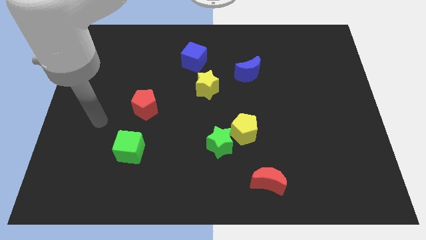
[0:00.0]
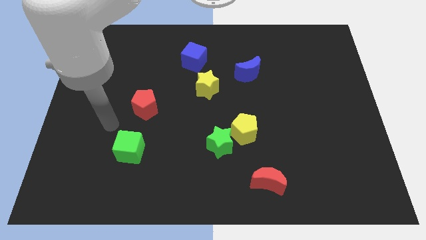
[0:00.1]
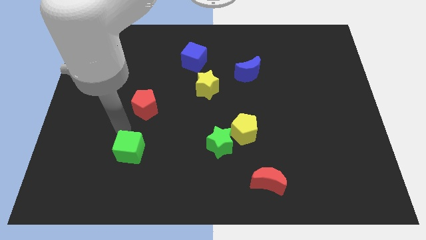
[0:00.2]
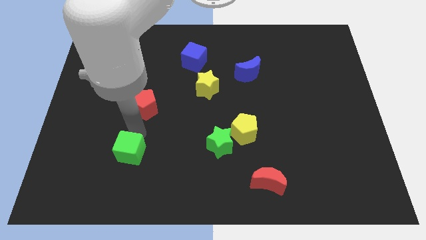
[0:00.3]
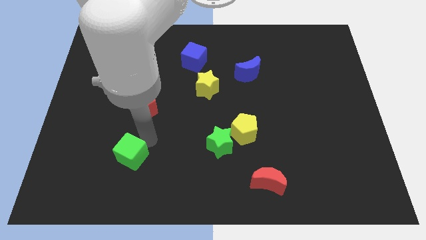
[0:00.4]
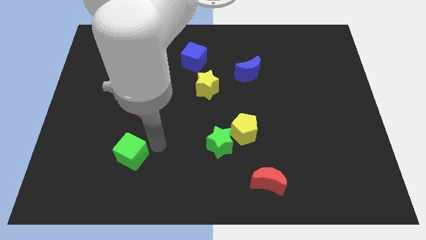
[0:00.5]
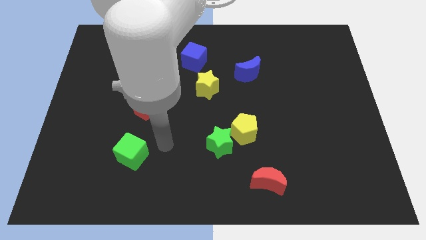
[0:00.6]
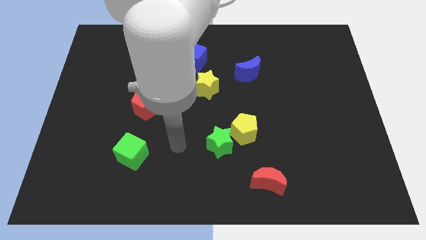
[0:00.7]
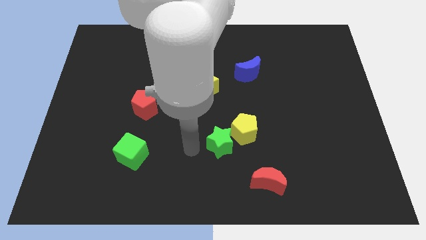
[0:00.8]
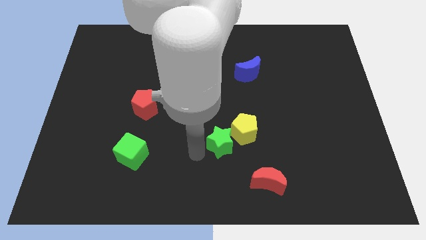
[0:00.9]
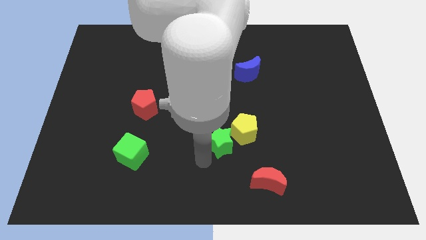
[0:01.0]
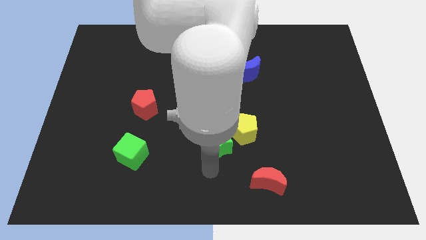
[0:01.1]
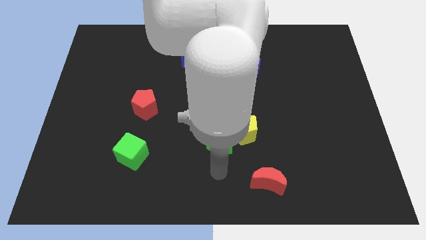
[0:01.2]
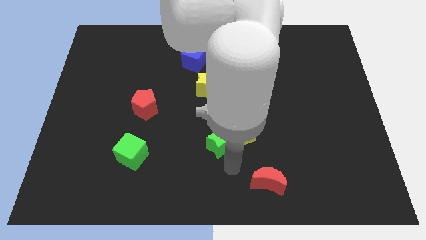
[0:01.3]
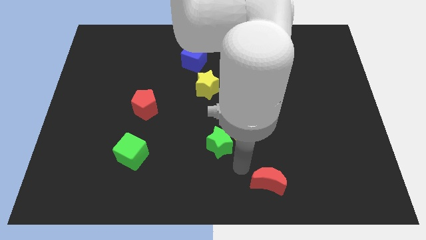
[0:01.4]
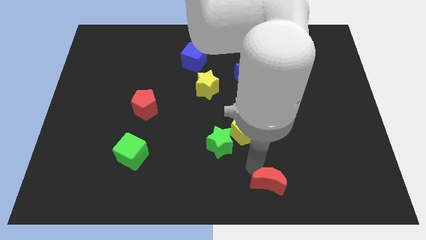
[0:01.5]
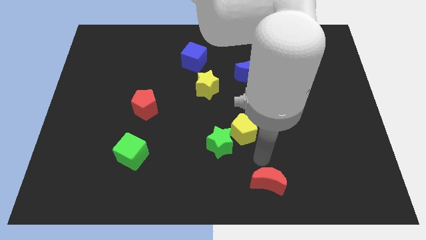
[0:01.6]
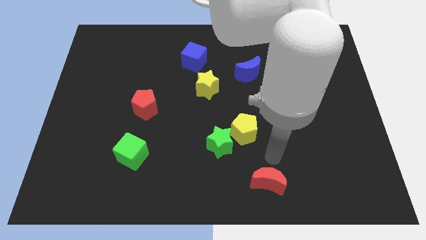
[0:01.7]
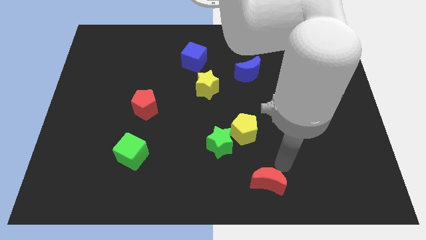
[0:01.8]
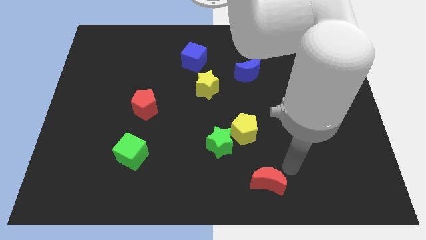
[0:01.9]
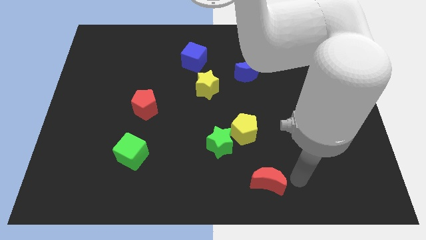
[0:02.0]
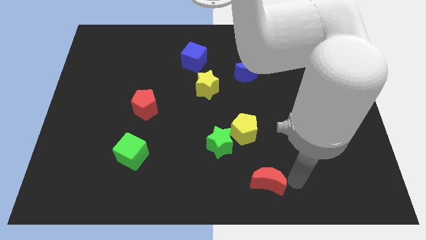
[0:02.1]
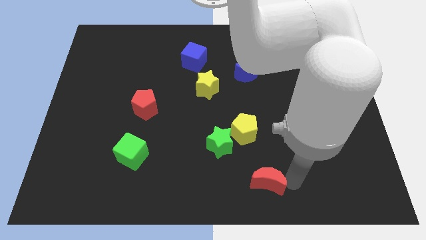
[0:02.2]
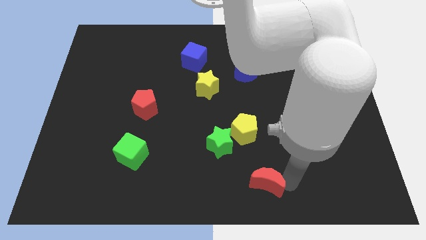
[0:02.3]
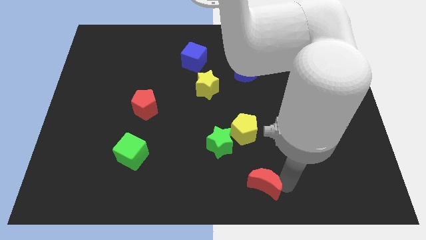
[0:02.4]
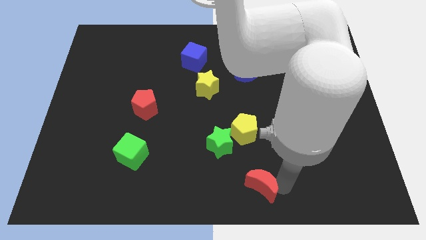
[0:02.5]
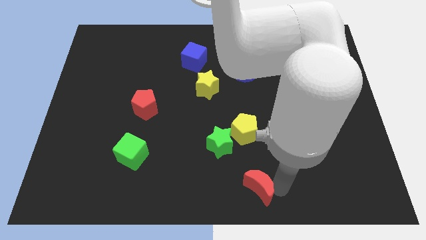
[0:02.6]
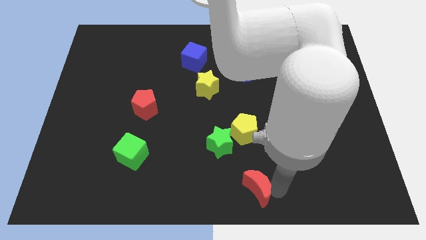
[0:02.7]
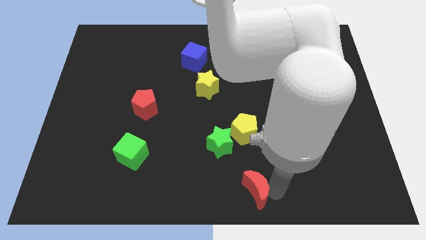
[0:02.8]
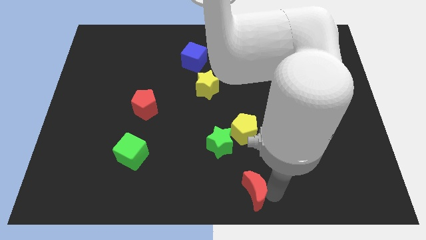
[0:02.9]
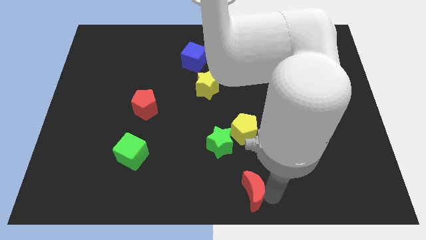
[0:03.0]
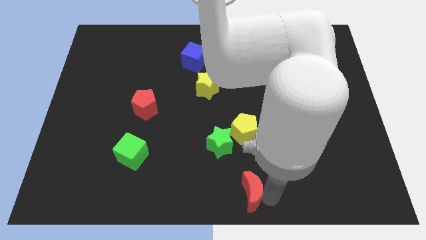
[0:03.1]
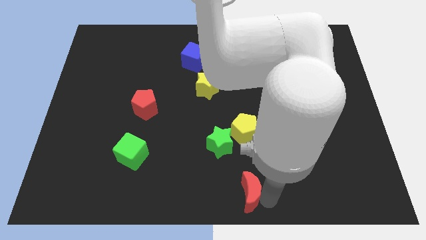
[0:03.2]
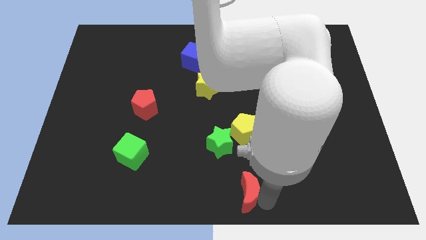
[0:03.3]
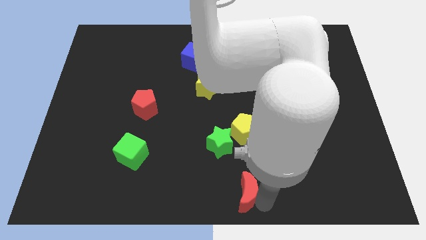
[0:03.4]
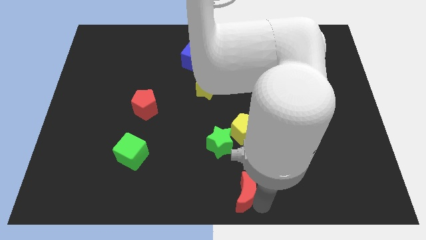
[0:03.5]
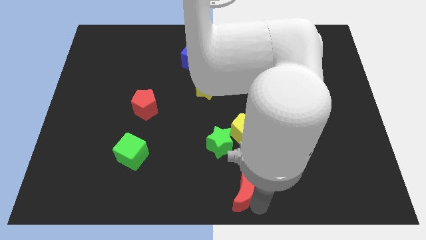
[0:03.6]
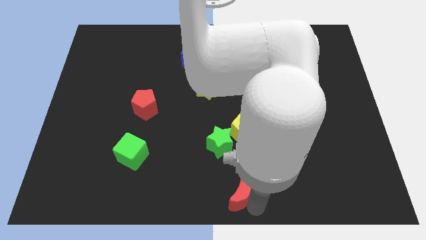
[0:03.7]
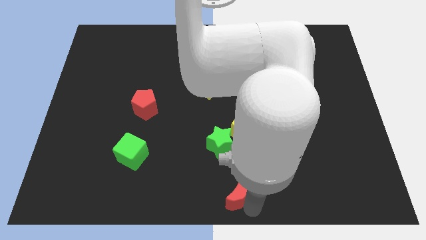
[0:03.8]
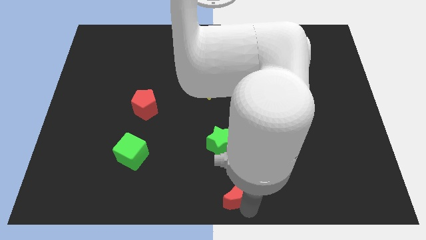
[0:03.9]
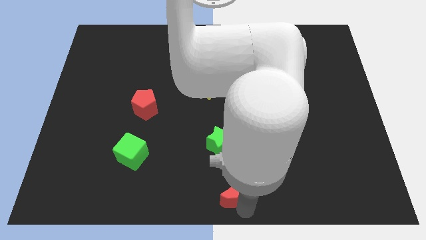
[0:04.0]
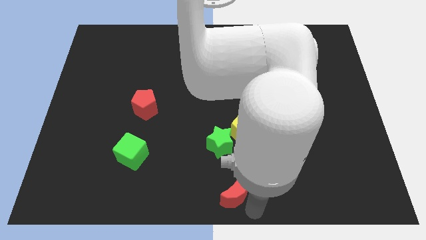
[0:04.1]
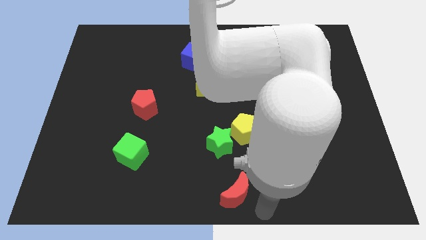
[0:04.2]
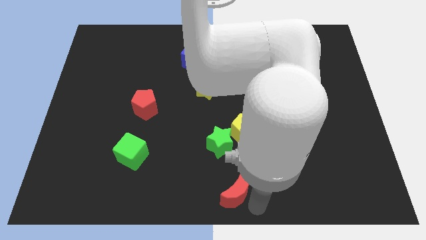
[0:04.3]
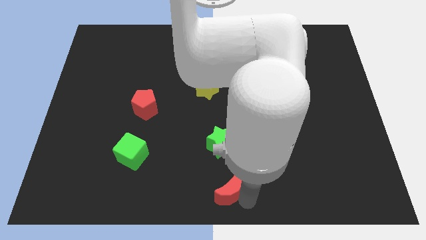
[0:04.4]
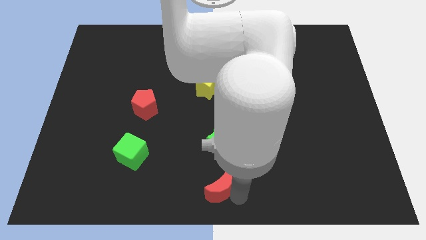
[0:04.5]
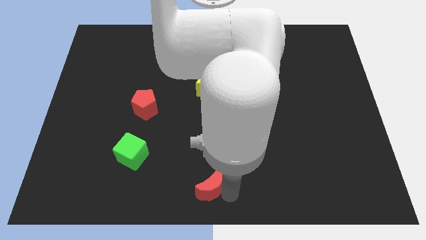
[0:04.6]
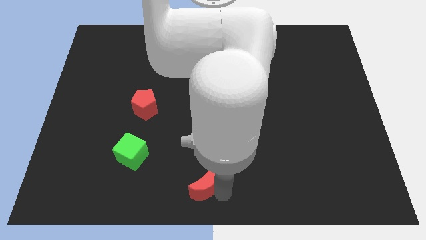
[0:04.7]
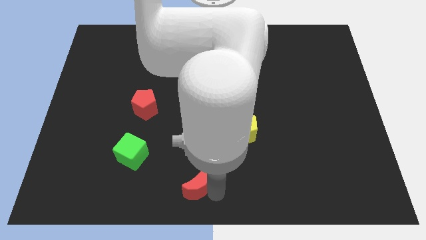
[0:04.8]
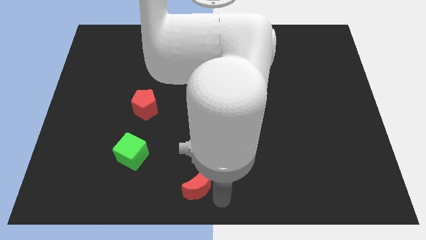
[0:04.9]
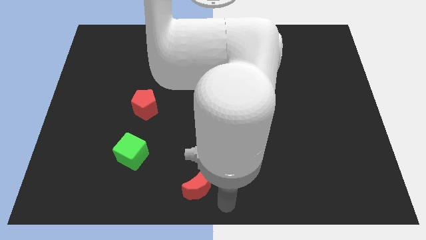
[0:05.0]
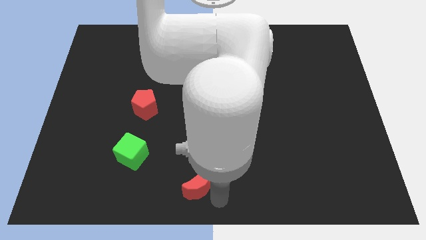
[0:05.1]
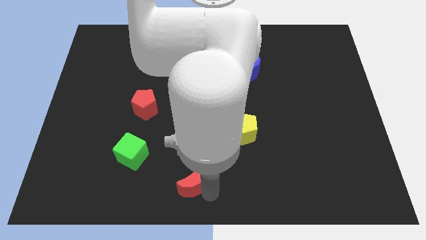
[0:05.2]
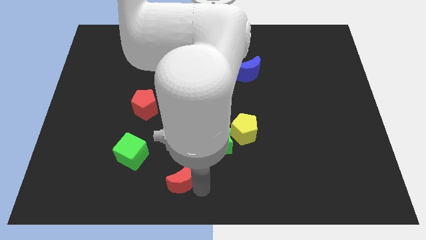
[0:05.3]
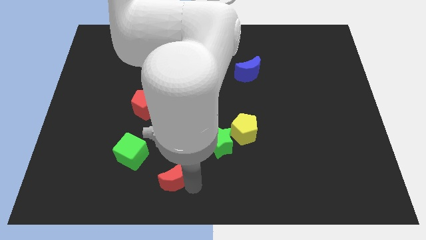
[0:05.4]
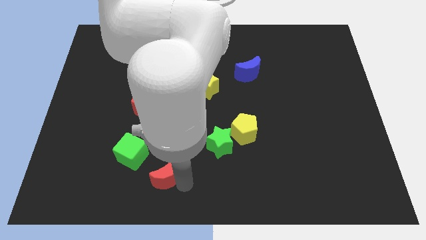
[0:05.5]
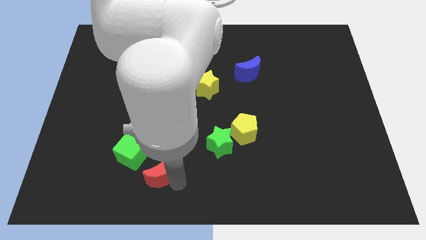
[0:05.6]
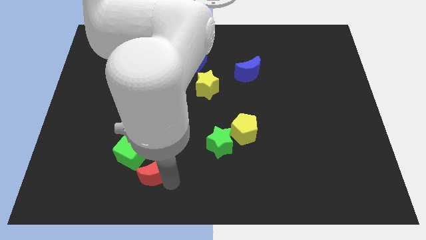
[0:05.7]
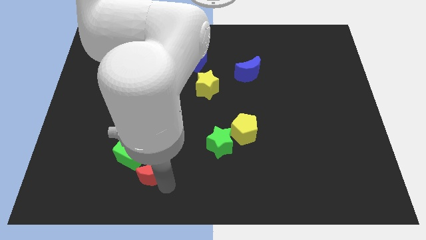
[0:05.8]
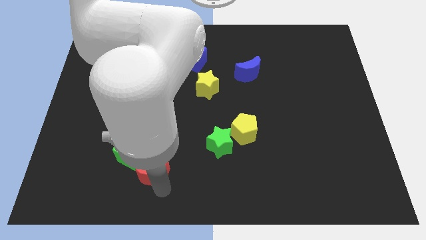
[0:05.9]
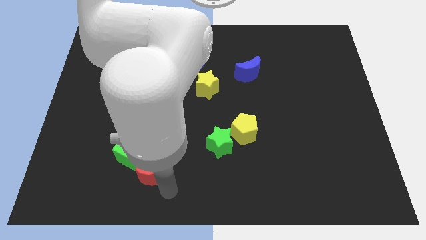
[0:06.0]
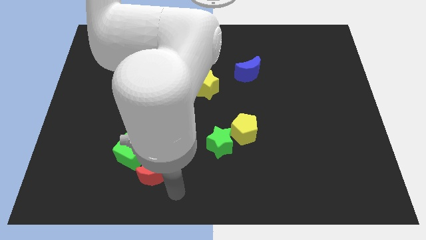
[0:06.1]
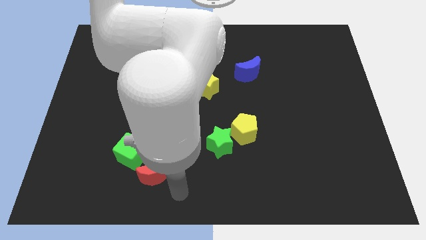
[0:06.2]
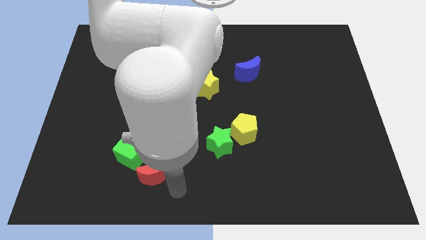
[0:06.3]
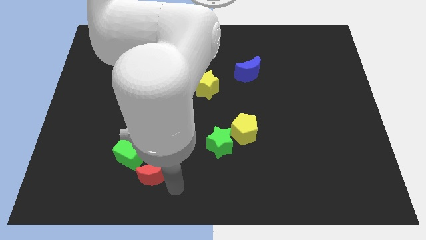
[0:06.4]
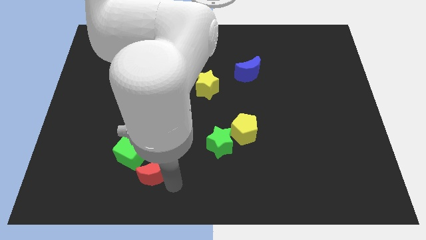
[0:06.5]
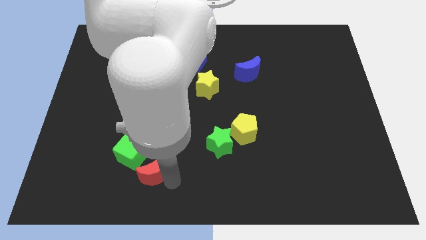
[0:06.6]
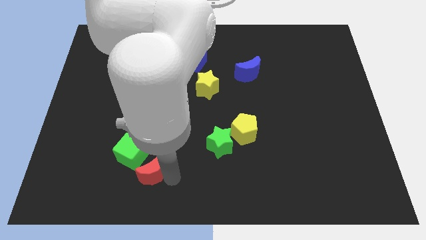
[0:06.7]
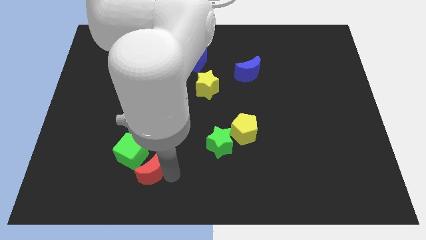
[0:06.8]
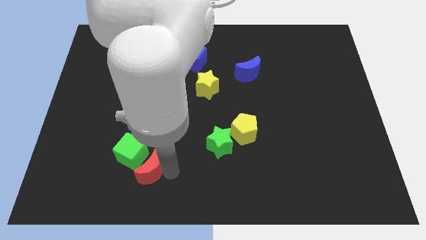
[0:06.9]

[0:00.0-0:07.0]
put the red moon close to the green cube
